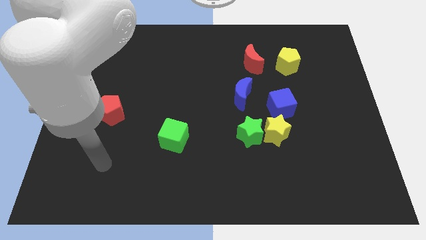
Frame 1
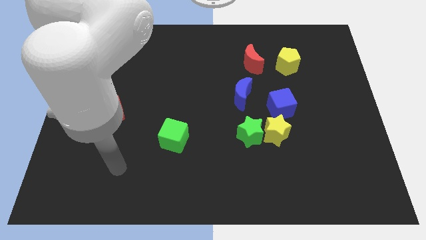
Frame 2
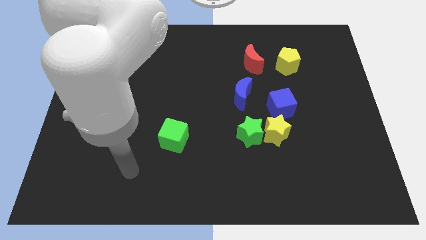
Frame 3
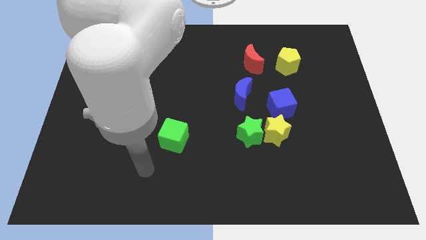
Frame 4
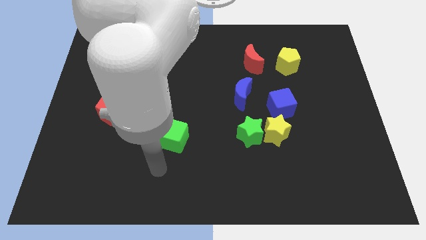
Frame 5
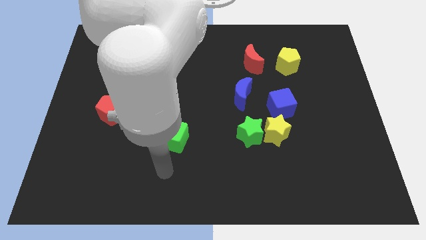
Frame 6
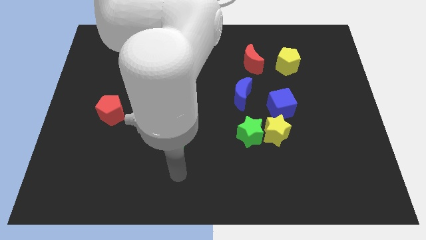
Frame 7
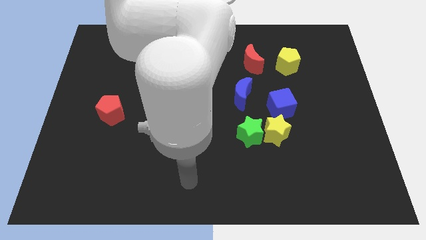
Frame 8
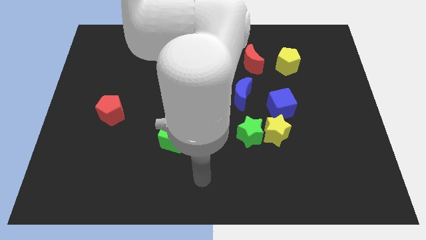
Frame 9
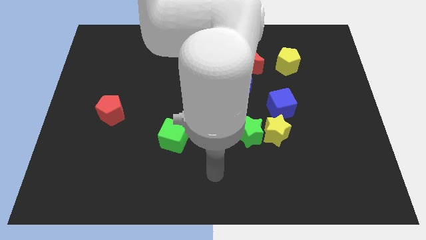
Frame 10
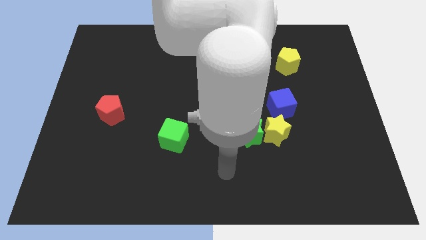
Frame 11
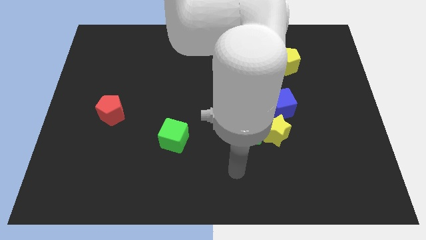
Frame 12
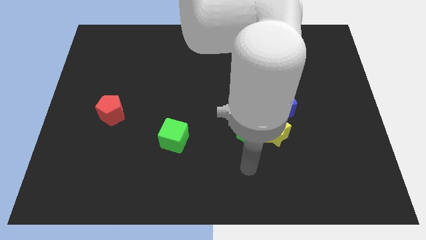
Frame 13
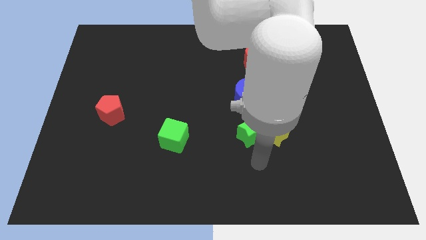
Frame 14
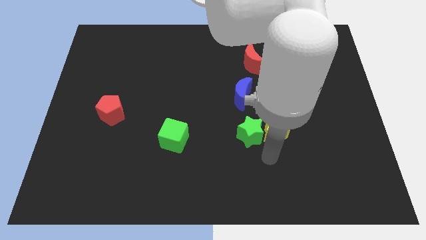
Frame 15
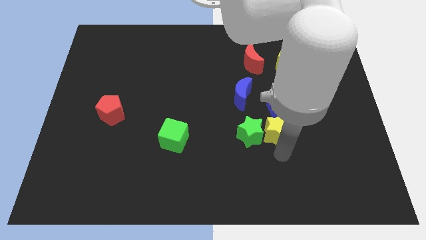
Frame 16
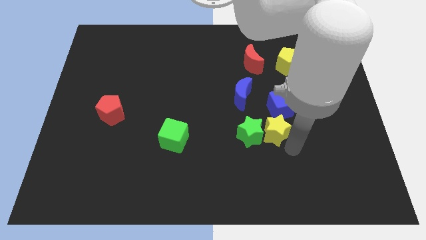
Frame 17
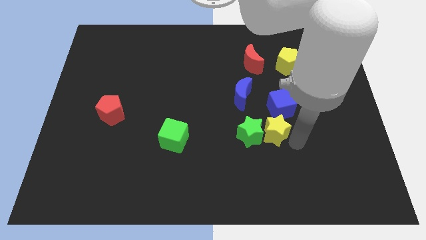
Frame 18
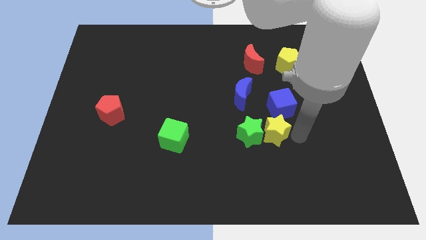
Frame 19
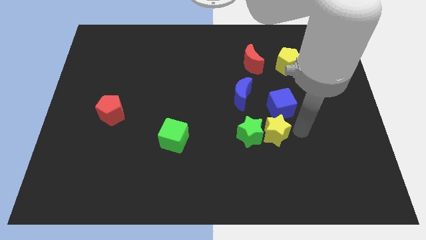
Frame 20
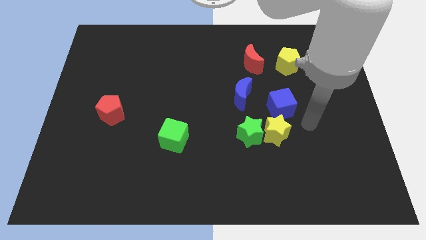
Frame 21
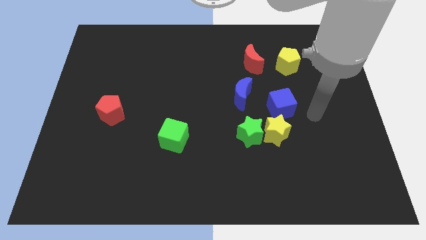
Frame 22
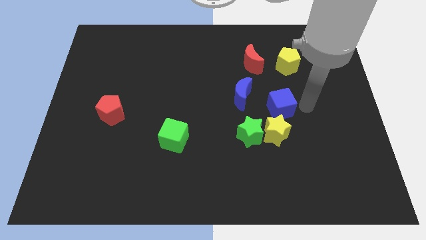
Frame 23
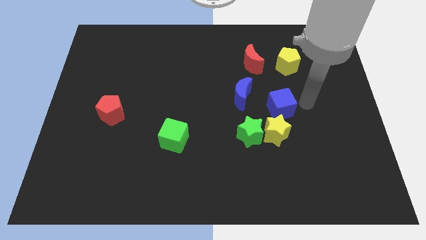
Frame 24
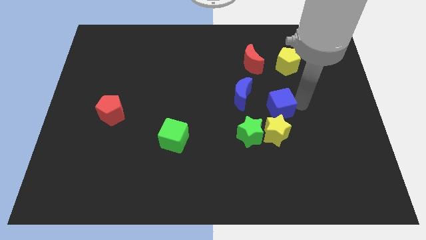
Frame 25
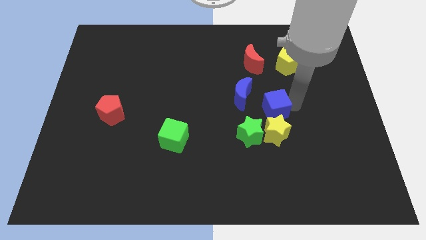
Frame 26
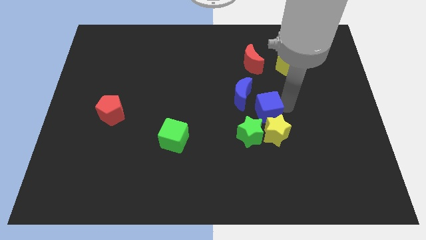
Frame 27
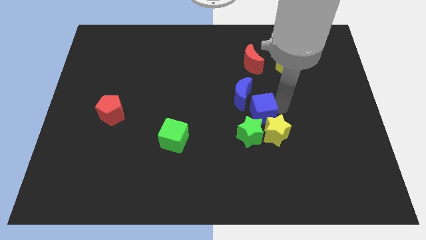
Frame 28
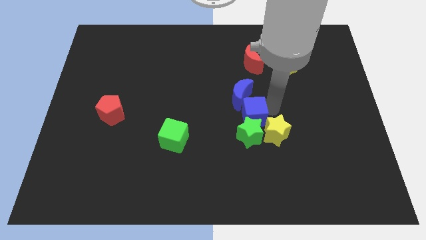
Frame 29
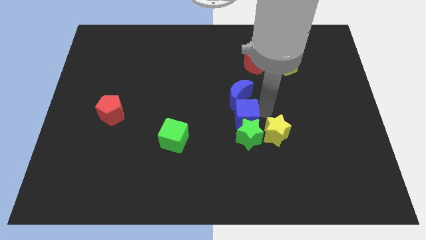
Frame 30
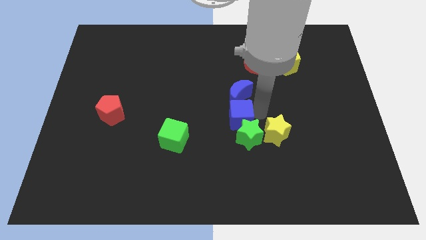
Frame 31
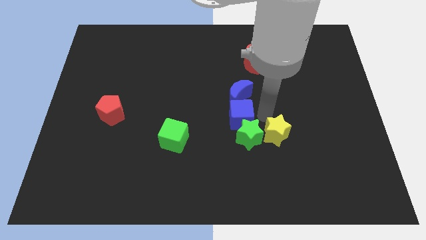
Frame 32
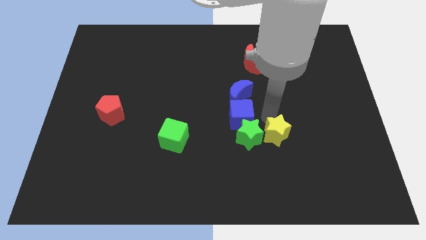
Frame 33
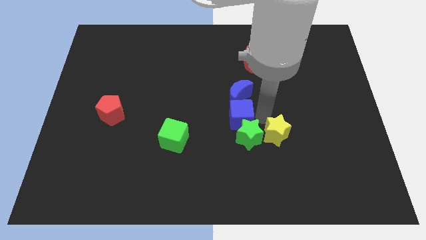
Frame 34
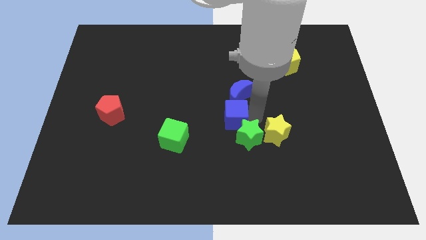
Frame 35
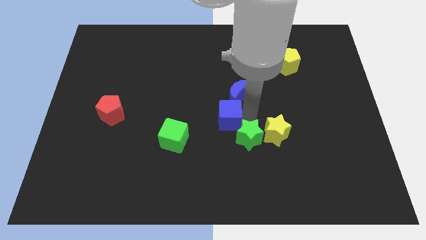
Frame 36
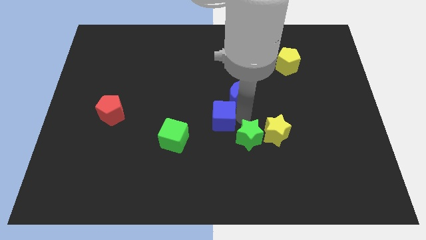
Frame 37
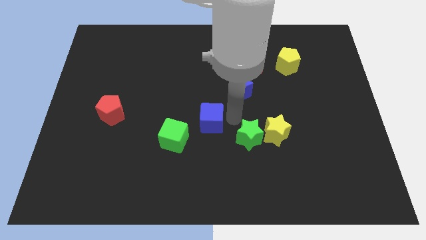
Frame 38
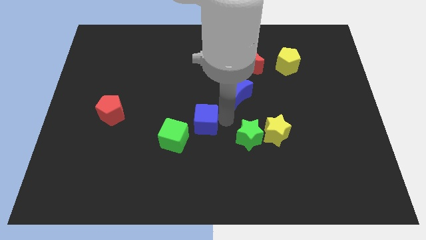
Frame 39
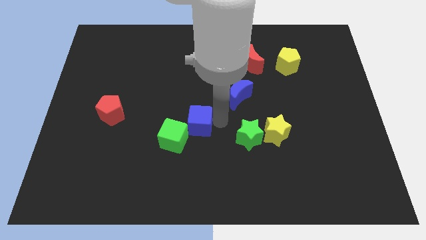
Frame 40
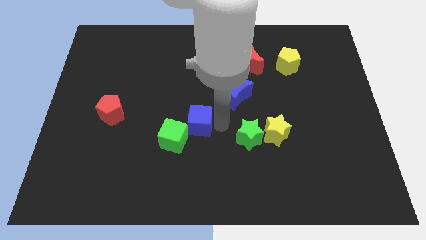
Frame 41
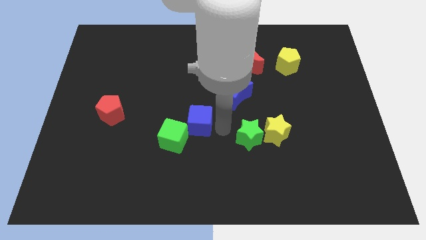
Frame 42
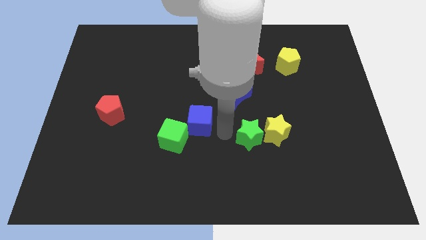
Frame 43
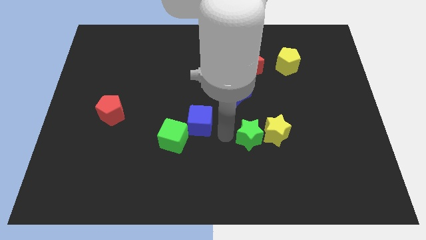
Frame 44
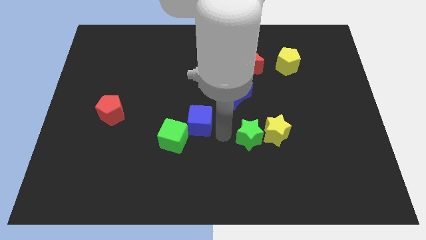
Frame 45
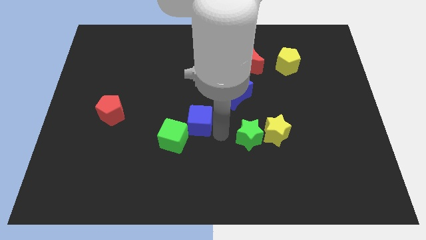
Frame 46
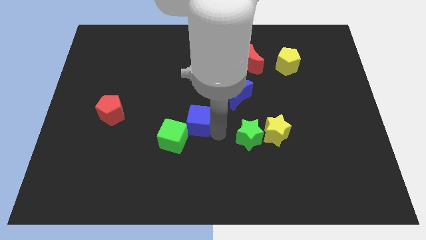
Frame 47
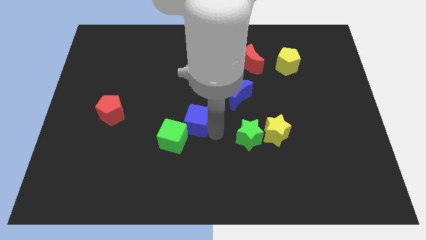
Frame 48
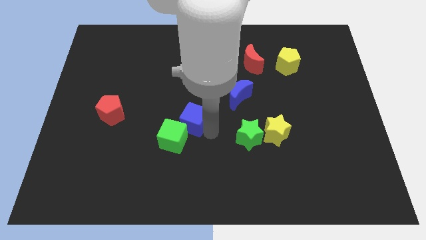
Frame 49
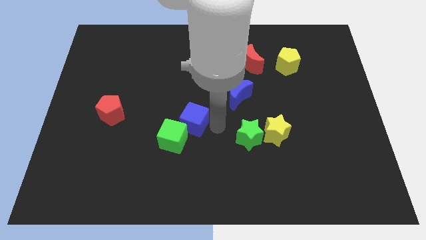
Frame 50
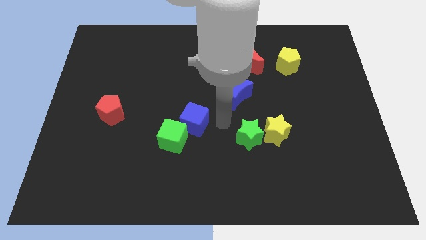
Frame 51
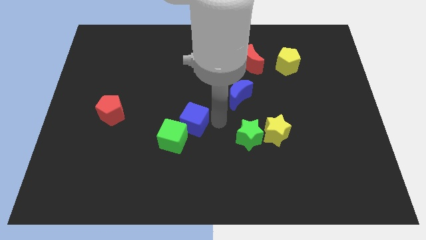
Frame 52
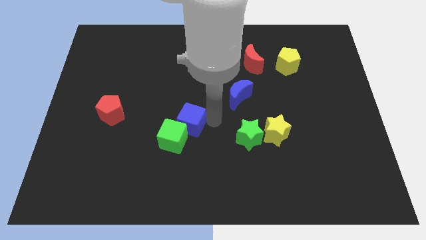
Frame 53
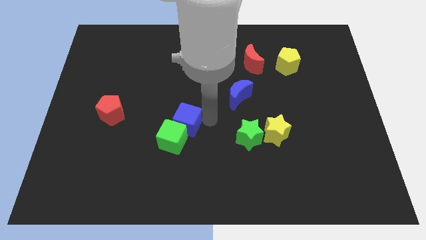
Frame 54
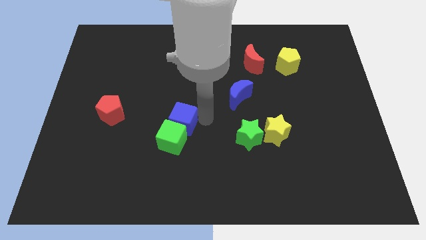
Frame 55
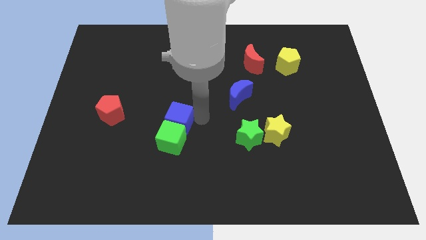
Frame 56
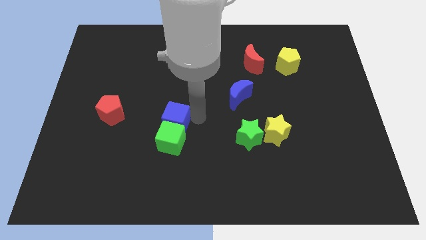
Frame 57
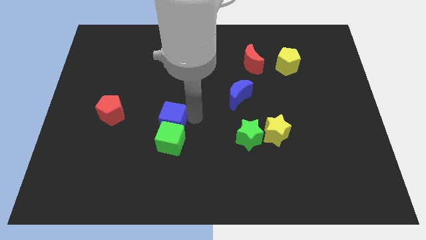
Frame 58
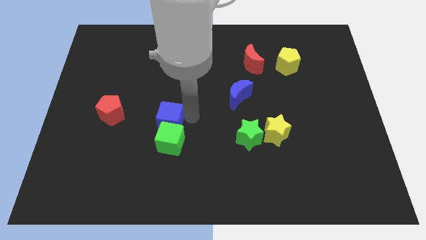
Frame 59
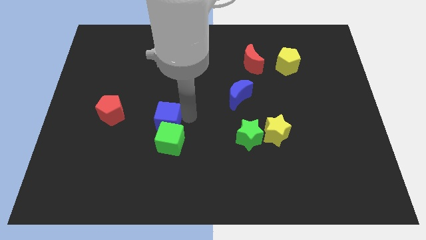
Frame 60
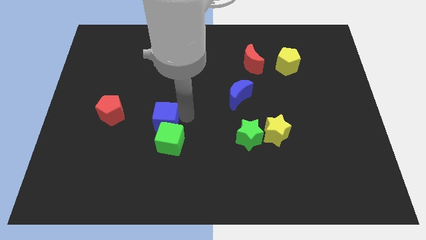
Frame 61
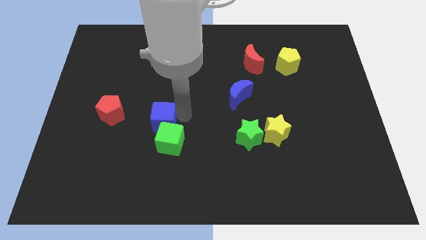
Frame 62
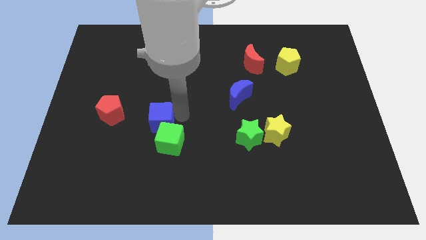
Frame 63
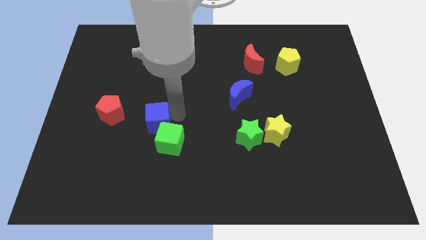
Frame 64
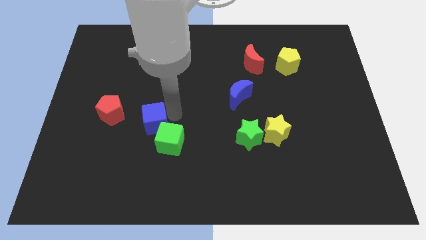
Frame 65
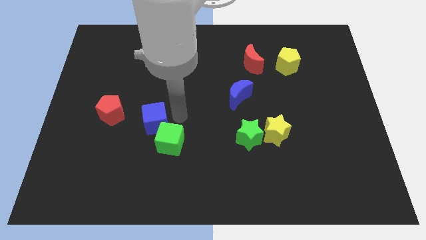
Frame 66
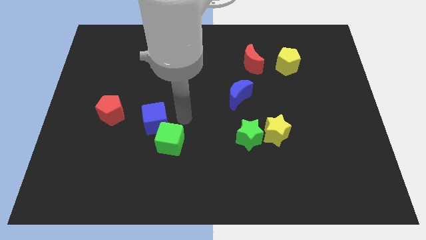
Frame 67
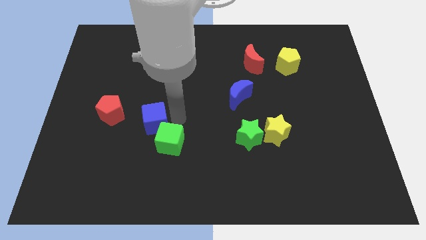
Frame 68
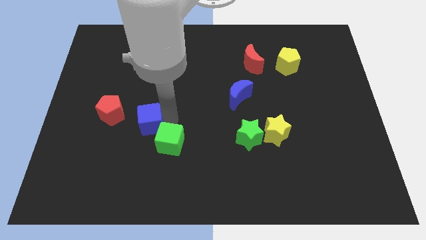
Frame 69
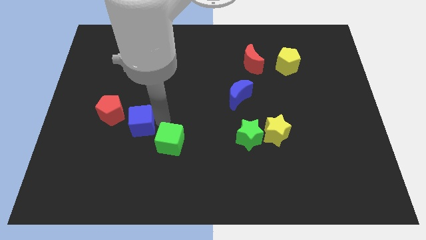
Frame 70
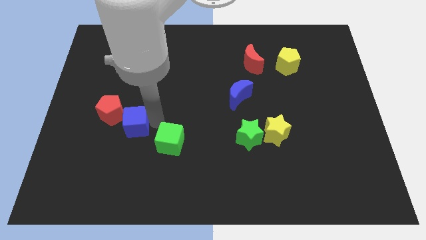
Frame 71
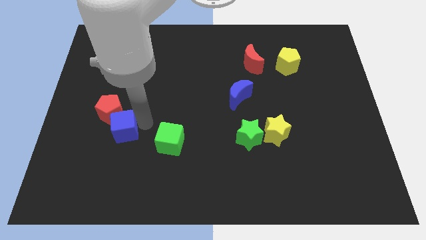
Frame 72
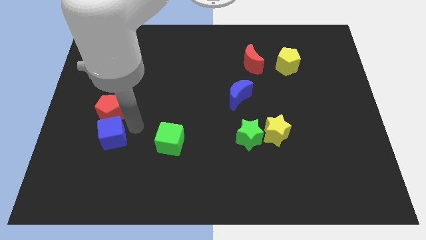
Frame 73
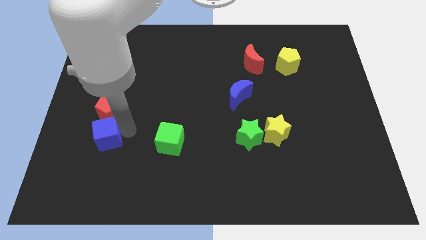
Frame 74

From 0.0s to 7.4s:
slide the blue cube diagonally down and to the left of the red pentagon
